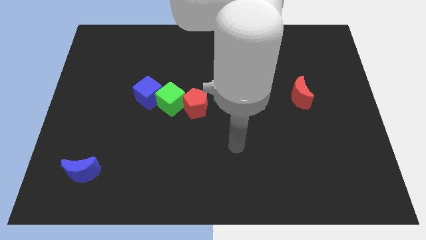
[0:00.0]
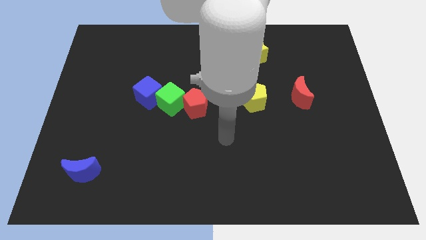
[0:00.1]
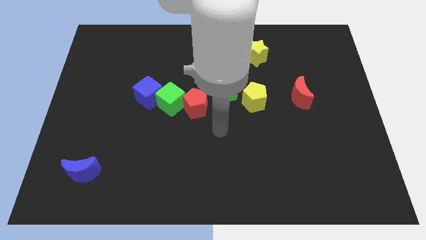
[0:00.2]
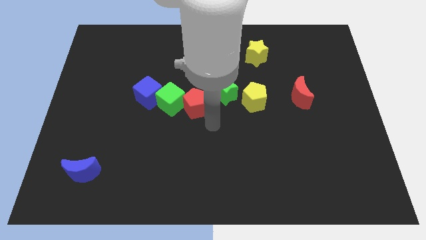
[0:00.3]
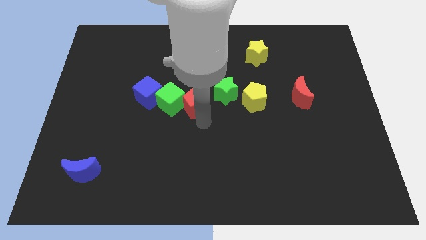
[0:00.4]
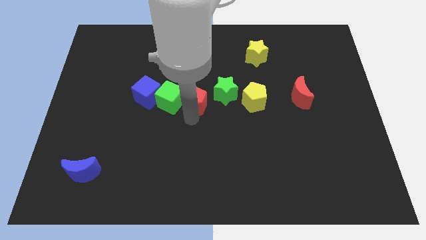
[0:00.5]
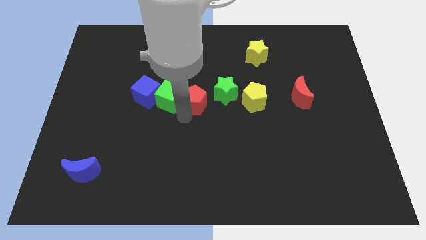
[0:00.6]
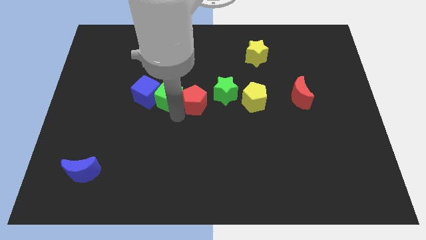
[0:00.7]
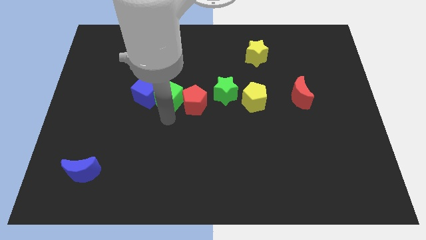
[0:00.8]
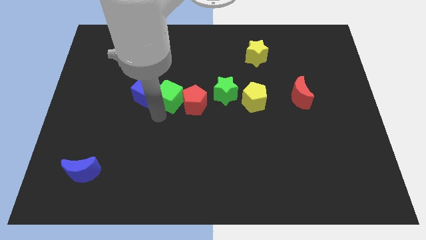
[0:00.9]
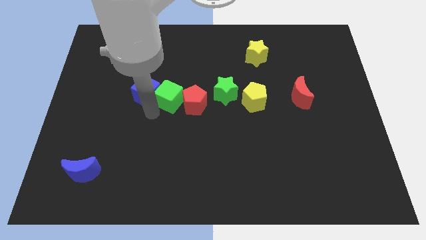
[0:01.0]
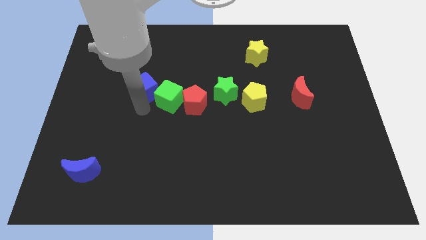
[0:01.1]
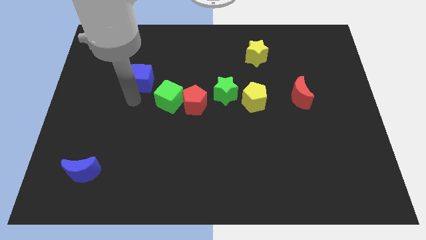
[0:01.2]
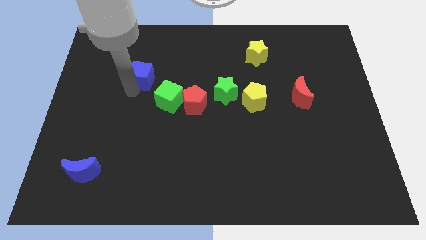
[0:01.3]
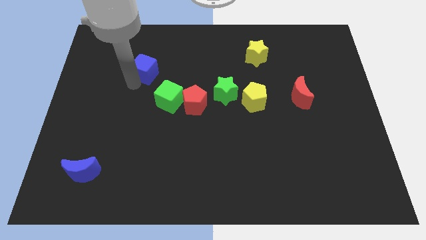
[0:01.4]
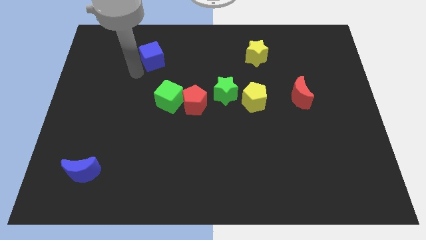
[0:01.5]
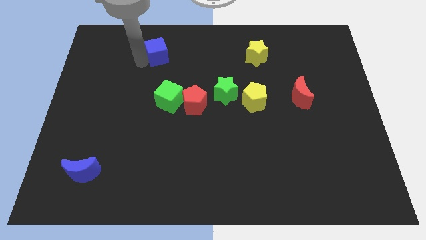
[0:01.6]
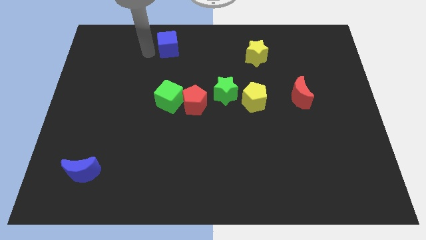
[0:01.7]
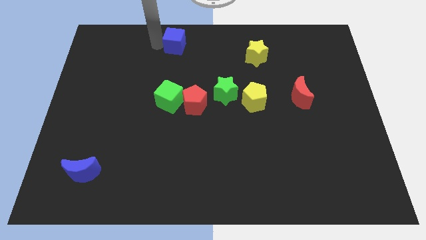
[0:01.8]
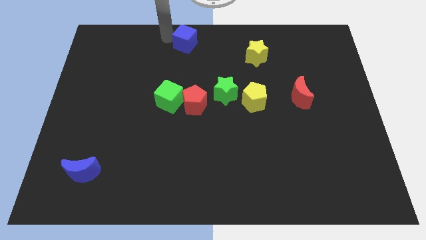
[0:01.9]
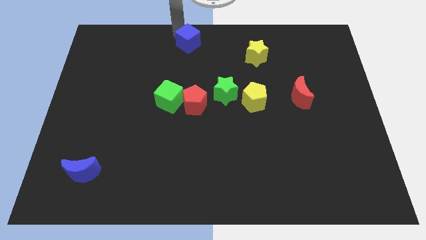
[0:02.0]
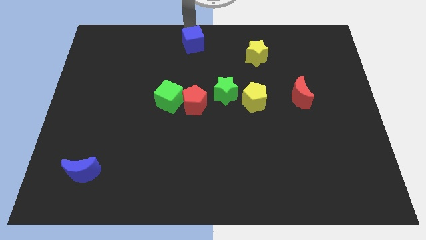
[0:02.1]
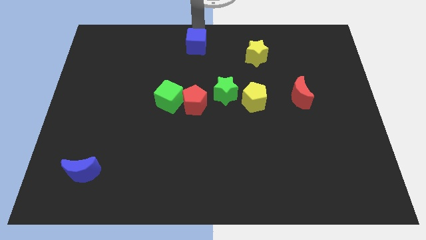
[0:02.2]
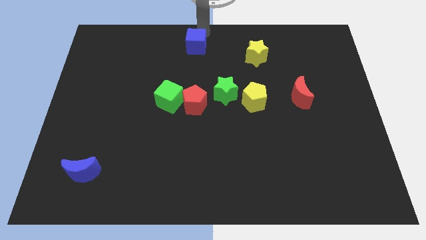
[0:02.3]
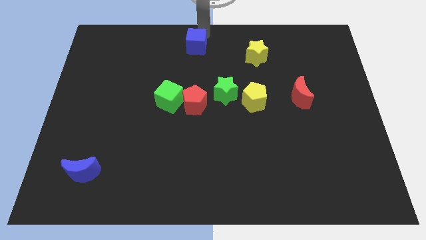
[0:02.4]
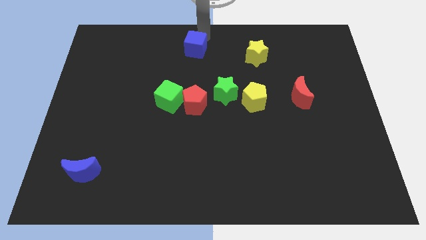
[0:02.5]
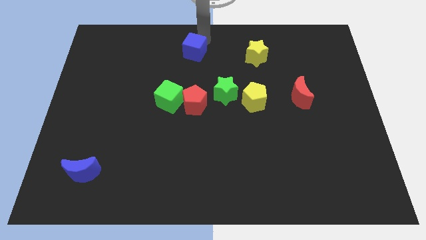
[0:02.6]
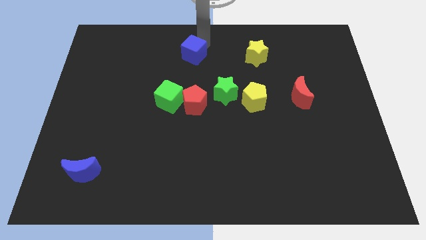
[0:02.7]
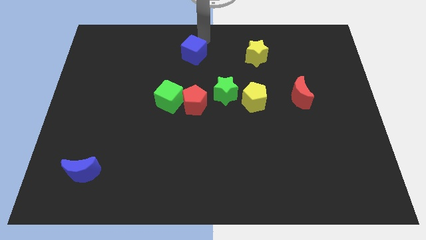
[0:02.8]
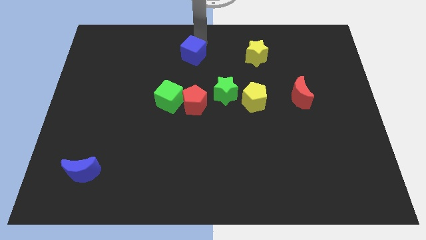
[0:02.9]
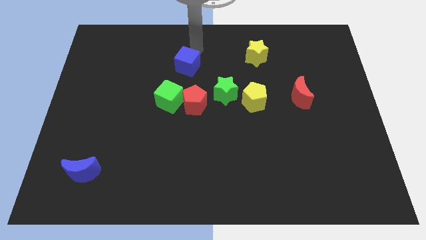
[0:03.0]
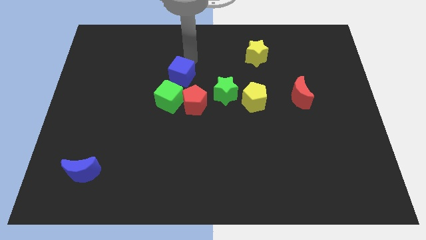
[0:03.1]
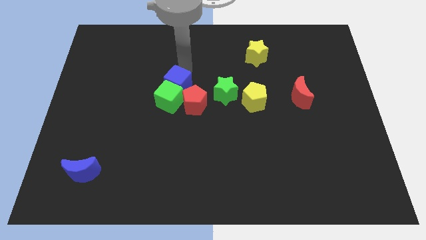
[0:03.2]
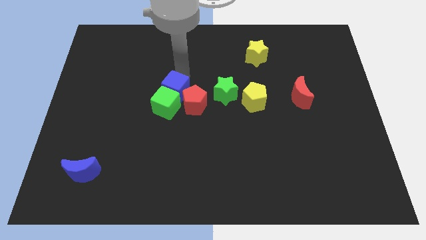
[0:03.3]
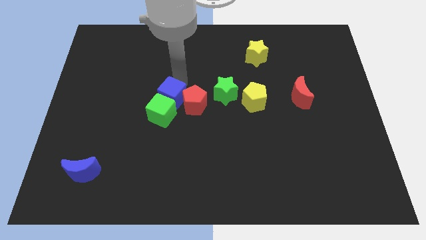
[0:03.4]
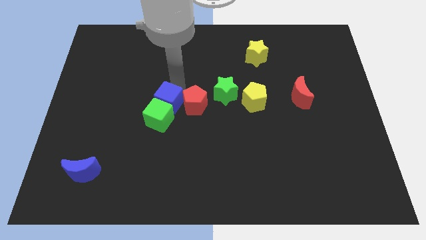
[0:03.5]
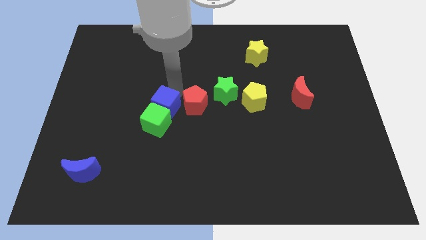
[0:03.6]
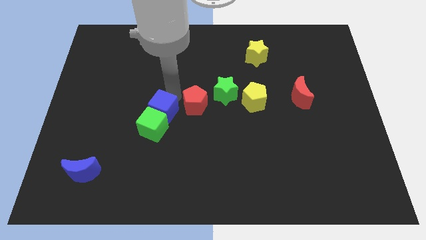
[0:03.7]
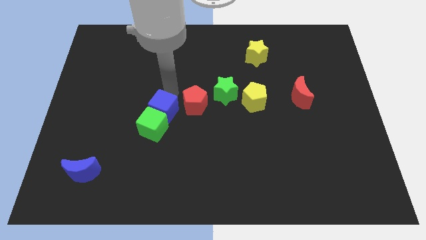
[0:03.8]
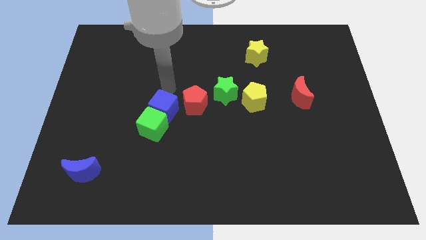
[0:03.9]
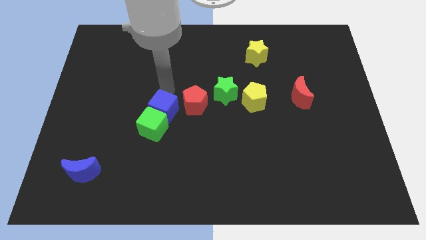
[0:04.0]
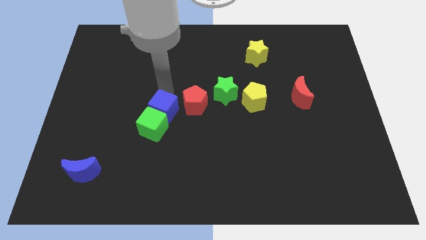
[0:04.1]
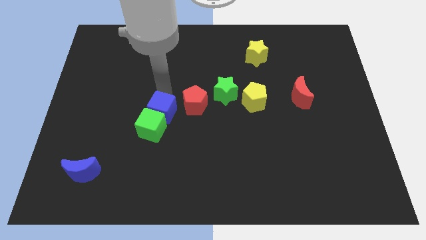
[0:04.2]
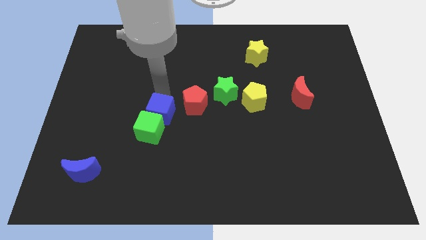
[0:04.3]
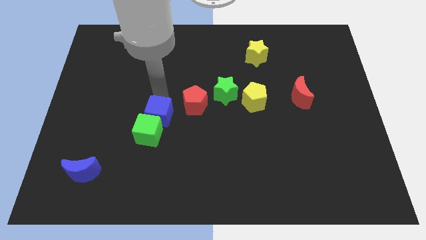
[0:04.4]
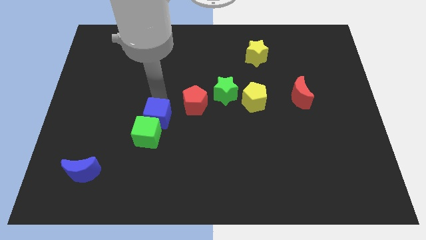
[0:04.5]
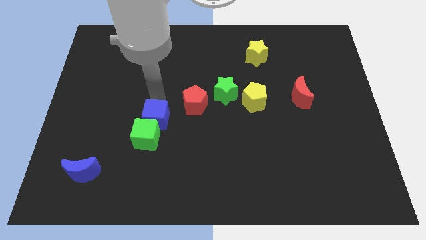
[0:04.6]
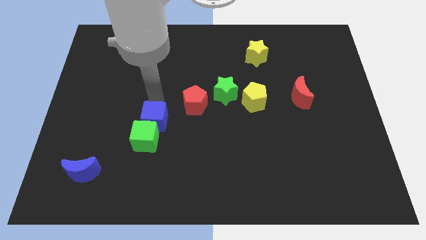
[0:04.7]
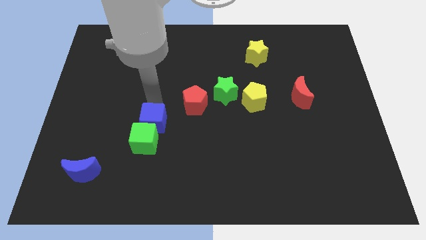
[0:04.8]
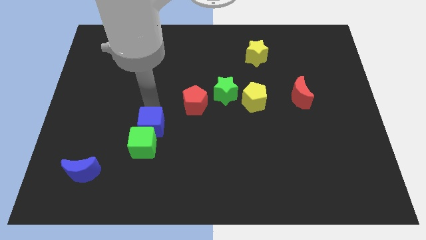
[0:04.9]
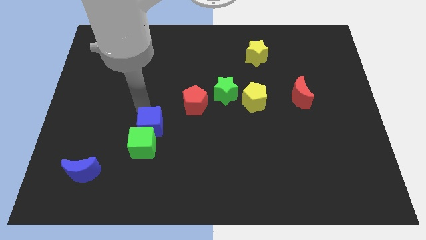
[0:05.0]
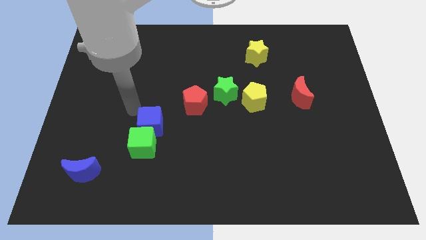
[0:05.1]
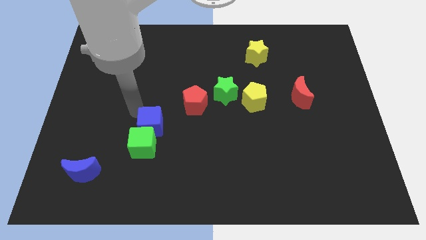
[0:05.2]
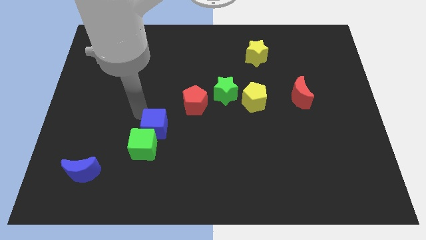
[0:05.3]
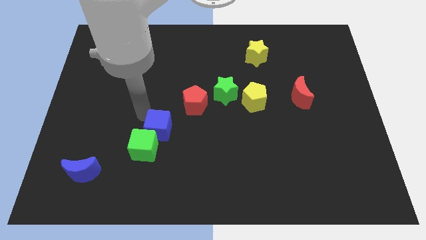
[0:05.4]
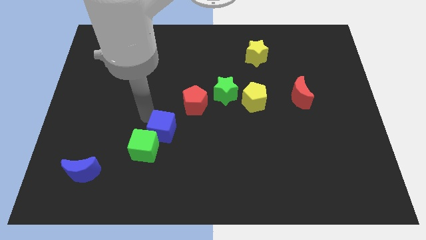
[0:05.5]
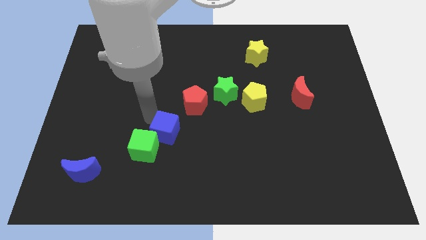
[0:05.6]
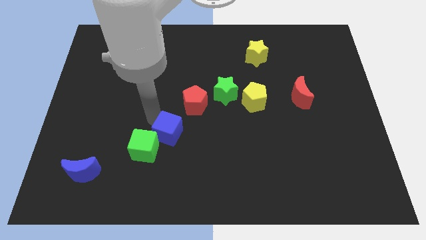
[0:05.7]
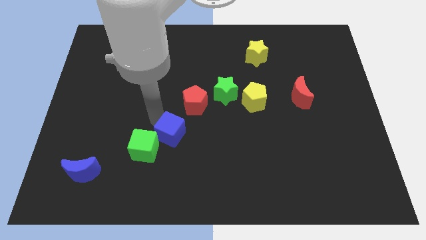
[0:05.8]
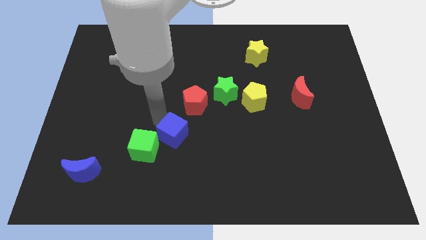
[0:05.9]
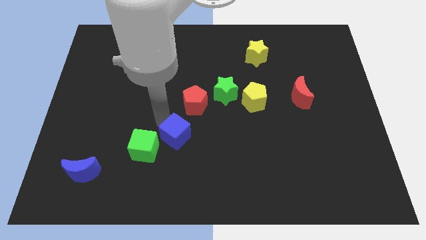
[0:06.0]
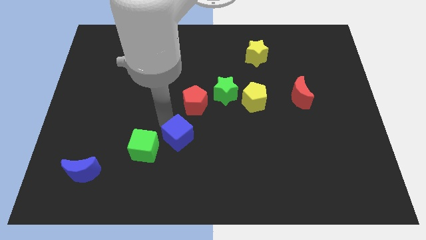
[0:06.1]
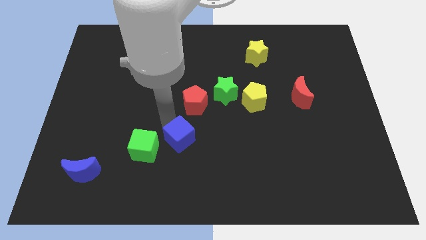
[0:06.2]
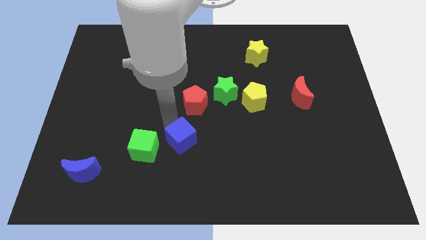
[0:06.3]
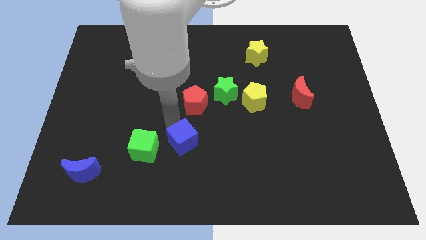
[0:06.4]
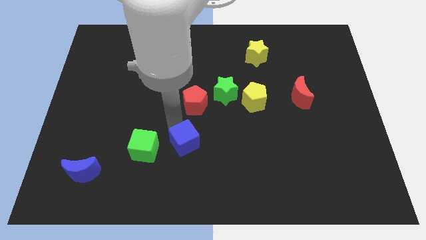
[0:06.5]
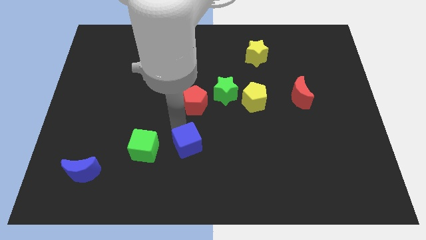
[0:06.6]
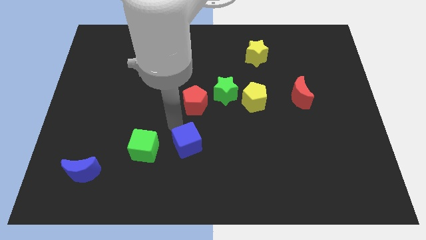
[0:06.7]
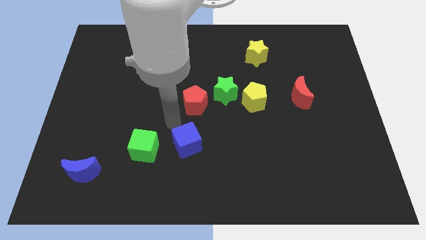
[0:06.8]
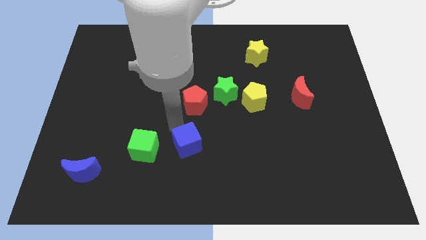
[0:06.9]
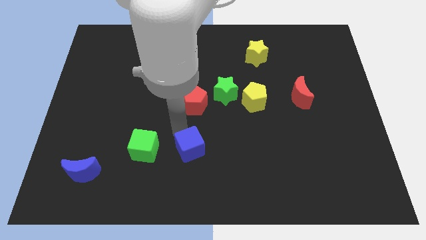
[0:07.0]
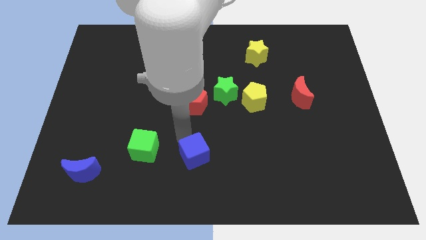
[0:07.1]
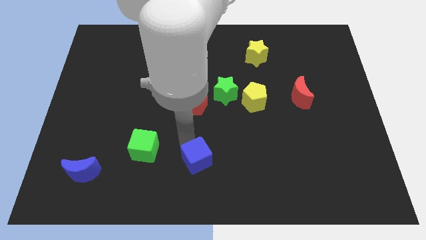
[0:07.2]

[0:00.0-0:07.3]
slide the blue cube down and right diagonally

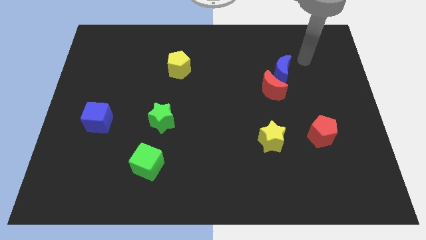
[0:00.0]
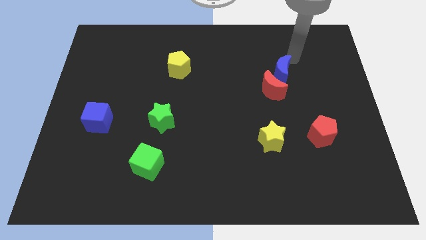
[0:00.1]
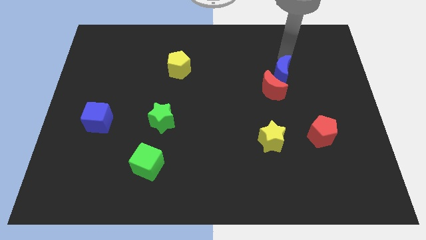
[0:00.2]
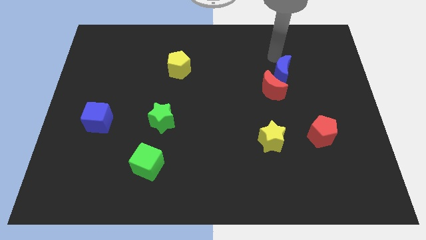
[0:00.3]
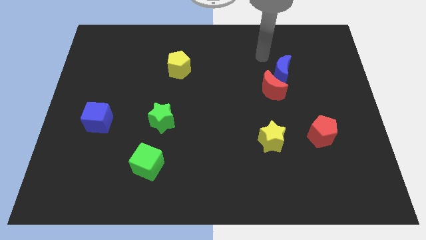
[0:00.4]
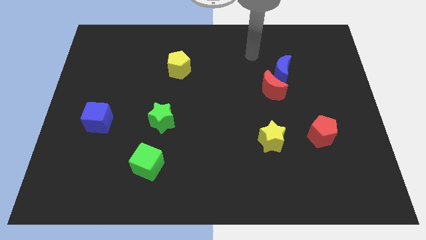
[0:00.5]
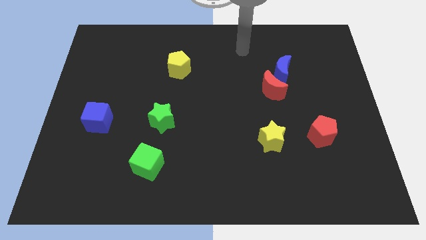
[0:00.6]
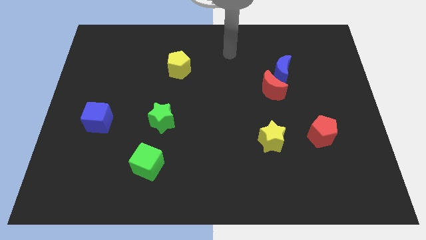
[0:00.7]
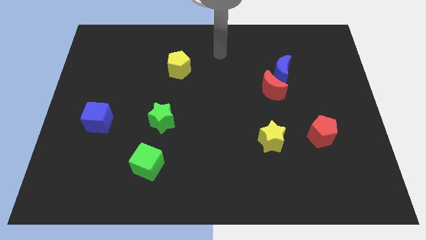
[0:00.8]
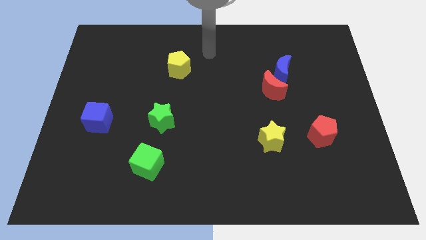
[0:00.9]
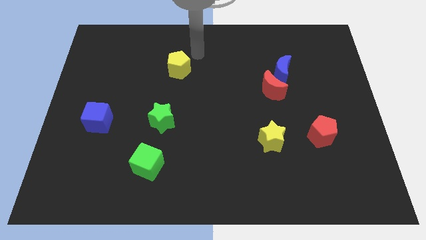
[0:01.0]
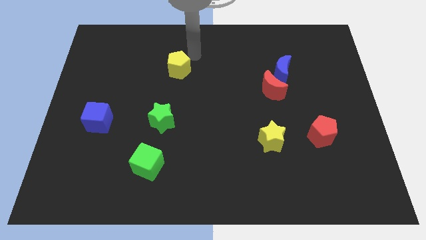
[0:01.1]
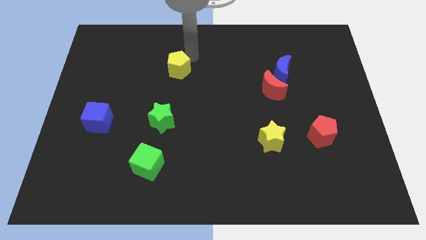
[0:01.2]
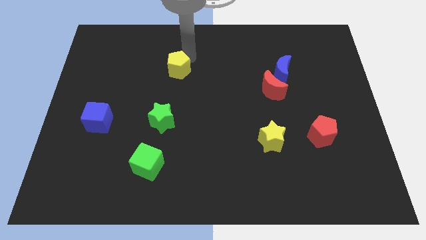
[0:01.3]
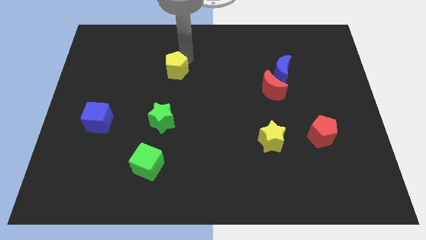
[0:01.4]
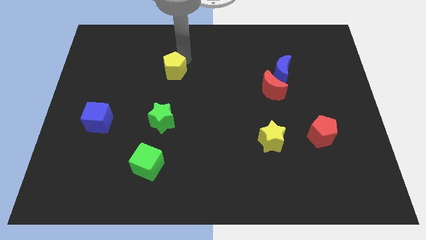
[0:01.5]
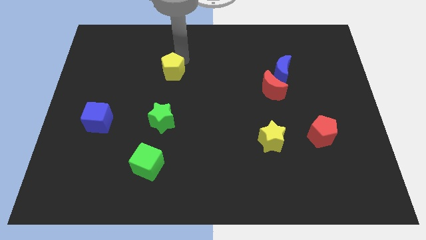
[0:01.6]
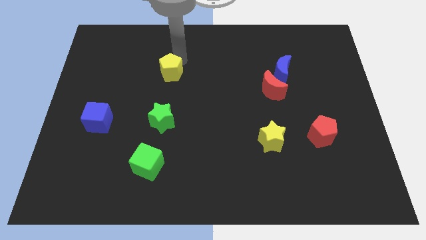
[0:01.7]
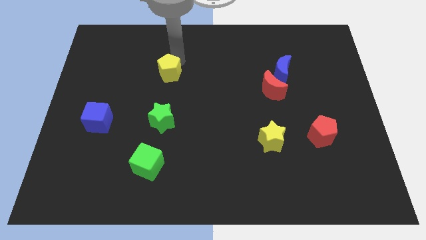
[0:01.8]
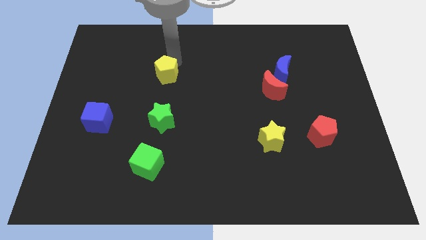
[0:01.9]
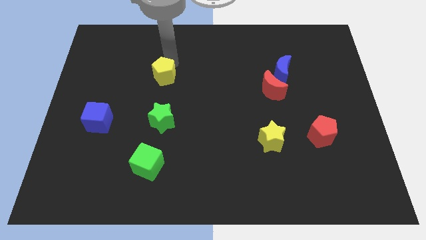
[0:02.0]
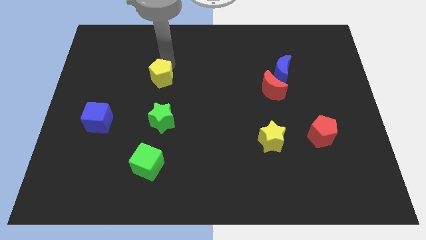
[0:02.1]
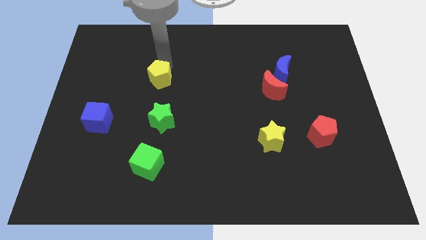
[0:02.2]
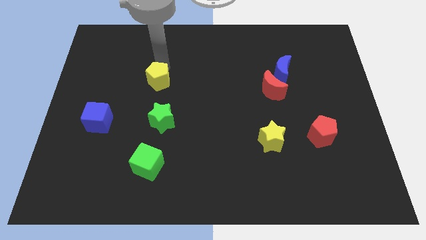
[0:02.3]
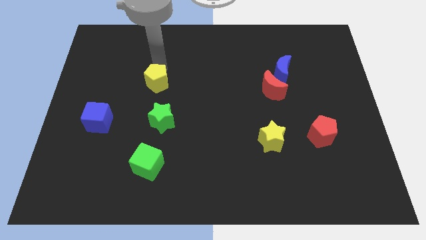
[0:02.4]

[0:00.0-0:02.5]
push the yellow pentagon downwards and left diagonally slightly
